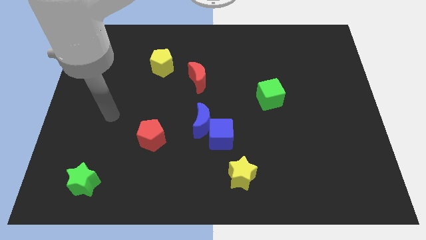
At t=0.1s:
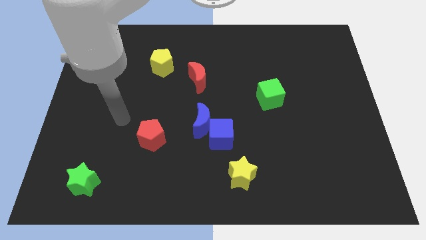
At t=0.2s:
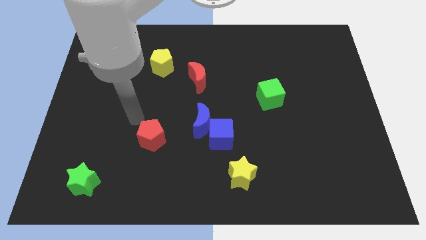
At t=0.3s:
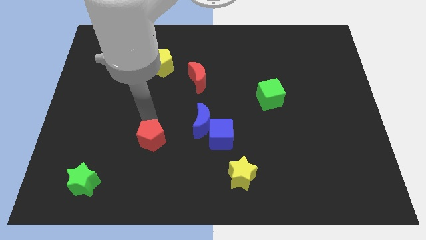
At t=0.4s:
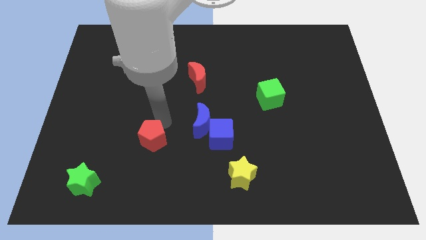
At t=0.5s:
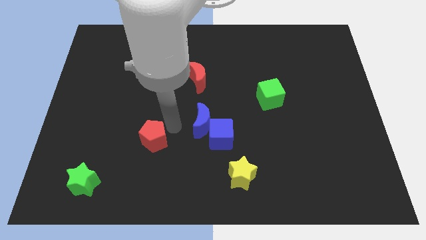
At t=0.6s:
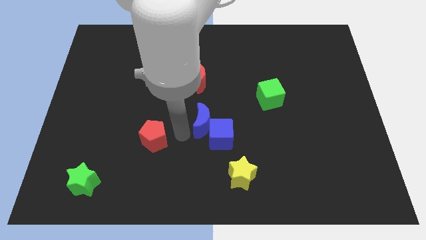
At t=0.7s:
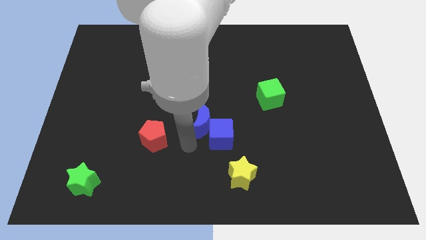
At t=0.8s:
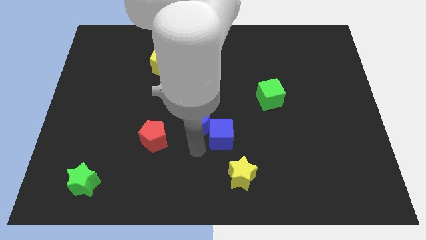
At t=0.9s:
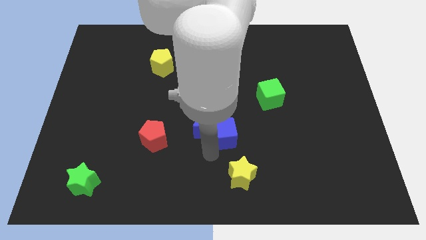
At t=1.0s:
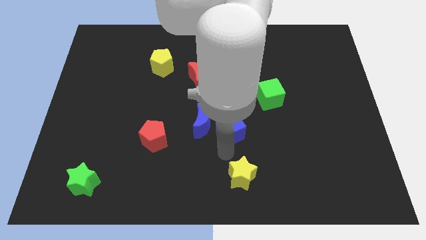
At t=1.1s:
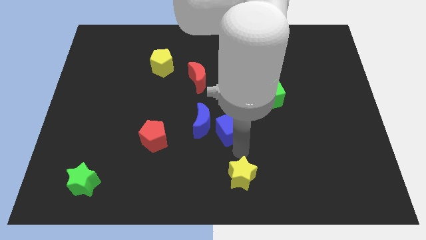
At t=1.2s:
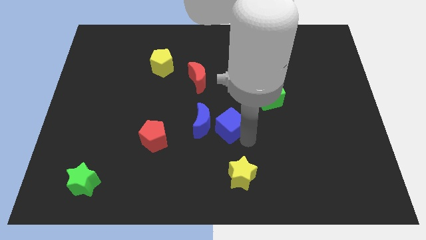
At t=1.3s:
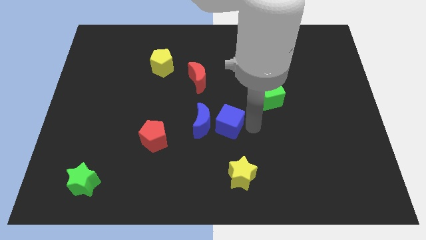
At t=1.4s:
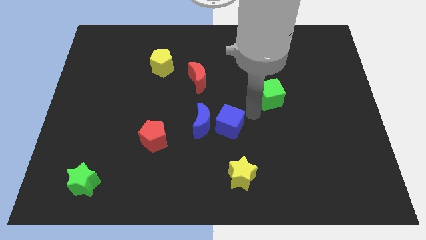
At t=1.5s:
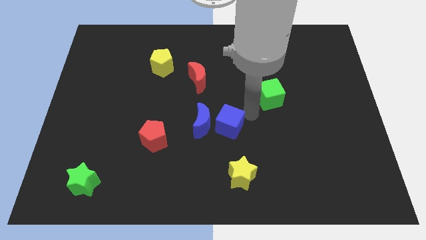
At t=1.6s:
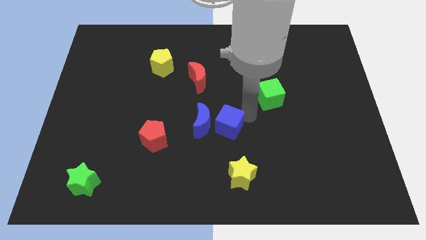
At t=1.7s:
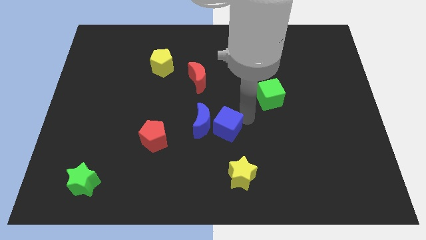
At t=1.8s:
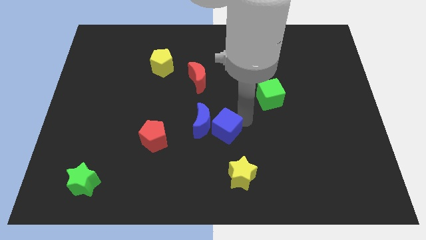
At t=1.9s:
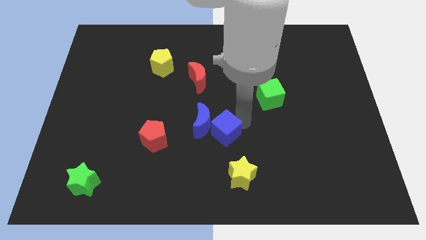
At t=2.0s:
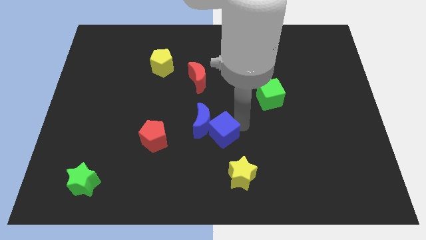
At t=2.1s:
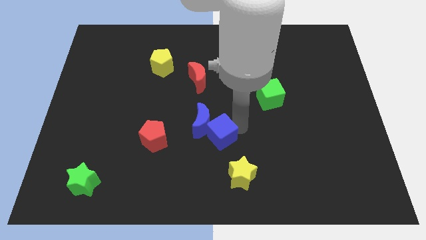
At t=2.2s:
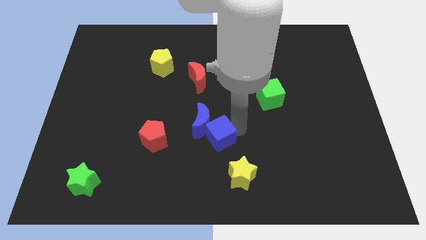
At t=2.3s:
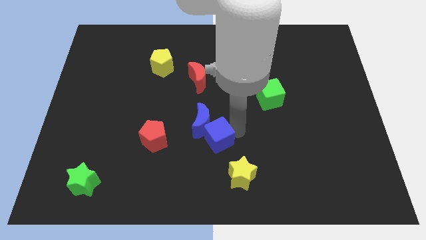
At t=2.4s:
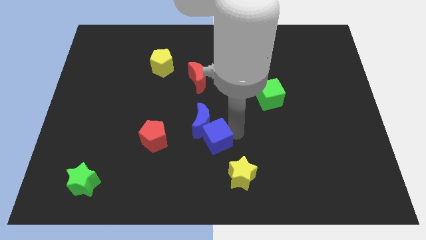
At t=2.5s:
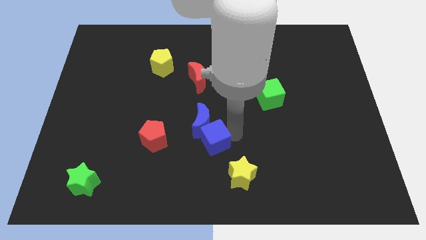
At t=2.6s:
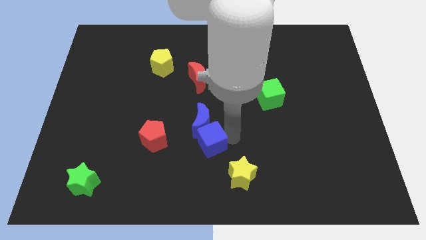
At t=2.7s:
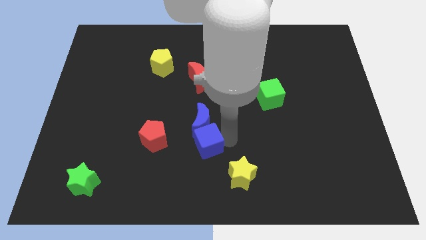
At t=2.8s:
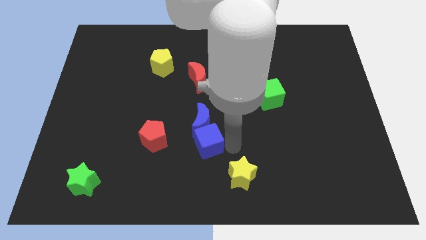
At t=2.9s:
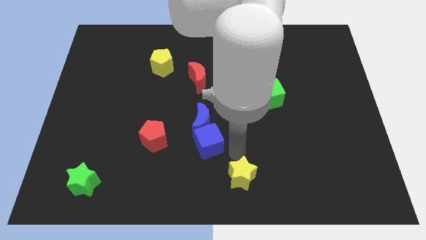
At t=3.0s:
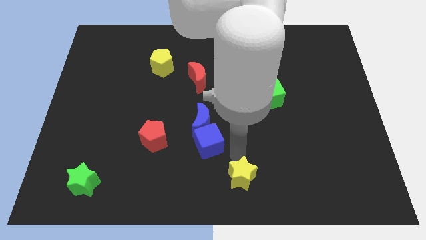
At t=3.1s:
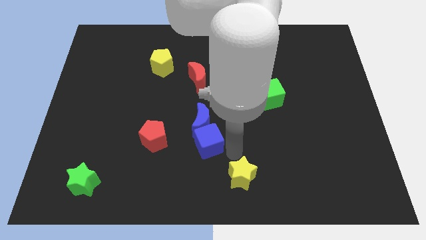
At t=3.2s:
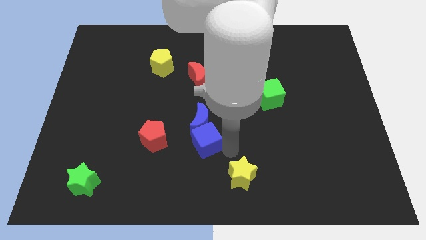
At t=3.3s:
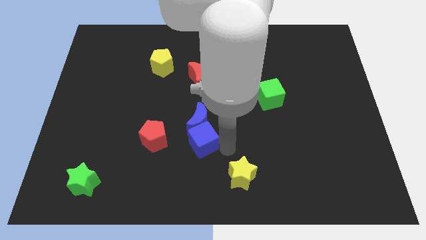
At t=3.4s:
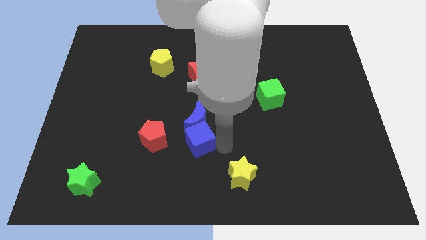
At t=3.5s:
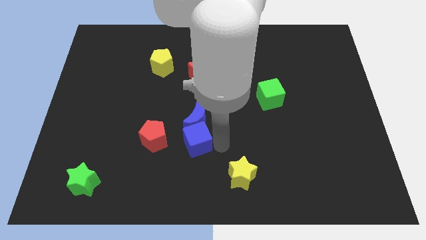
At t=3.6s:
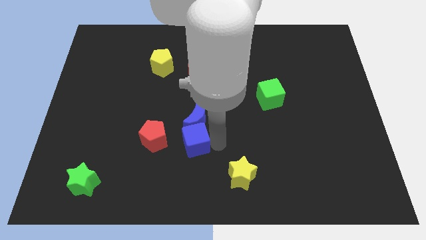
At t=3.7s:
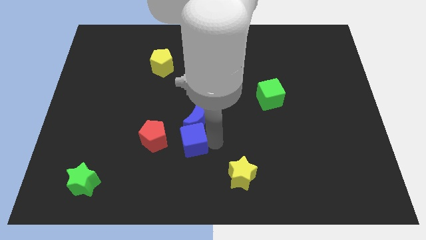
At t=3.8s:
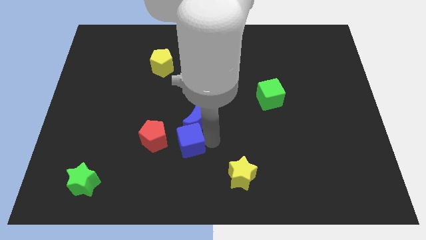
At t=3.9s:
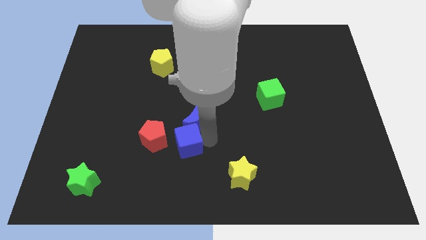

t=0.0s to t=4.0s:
move the blue cube left a little bit

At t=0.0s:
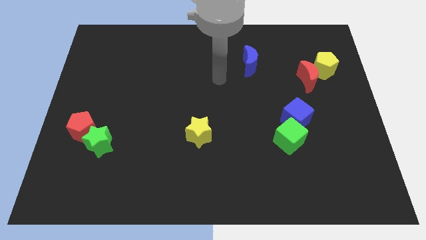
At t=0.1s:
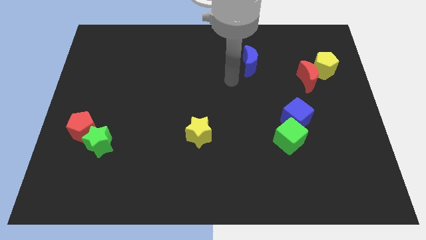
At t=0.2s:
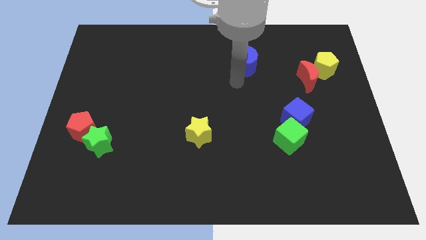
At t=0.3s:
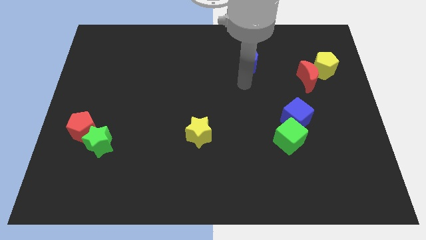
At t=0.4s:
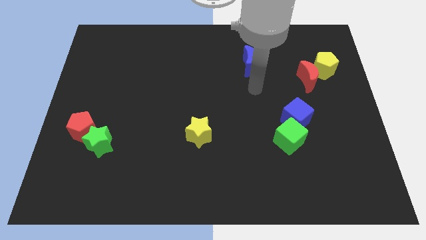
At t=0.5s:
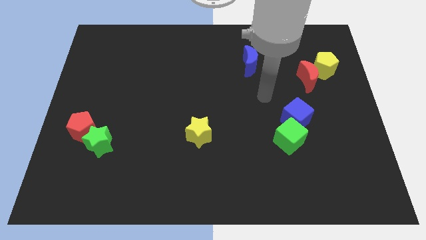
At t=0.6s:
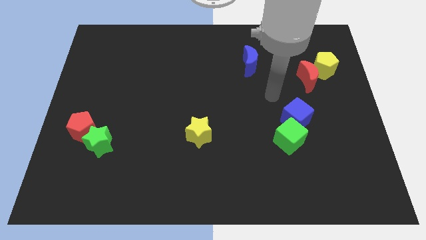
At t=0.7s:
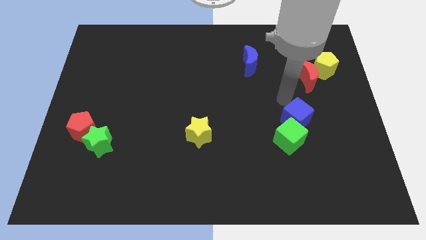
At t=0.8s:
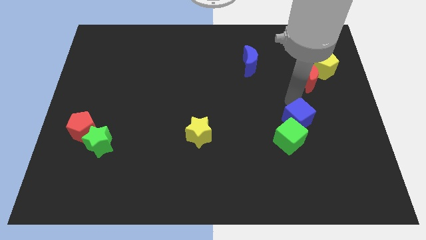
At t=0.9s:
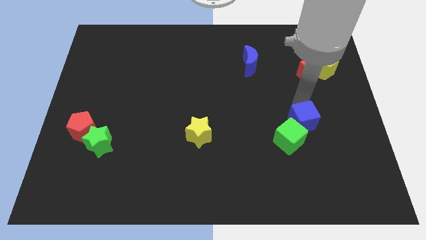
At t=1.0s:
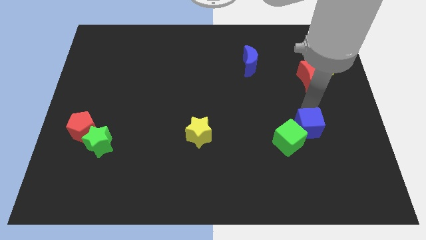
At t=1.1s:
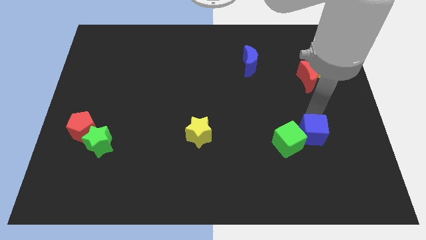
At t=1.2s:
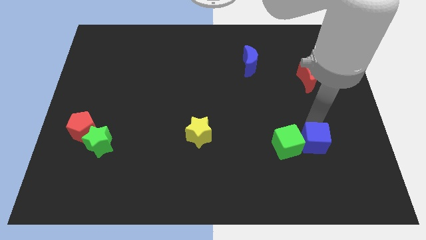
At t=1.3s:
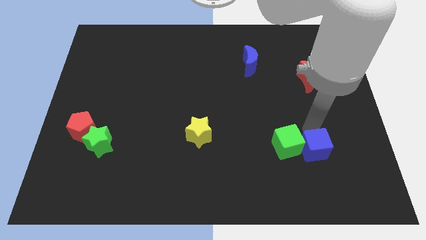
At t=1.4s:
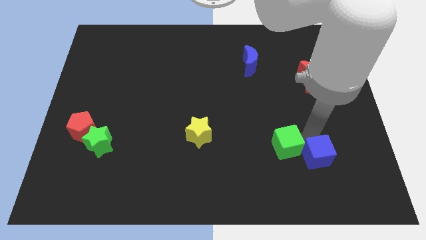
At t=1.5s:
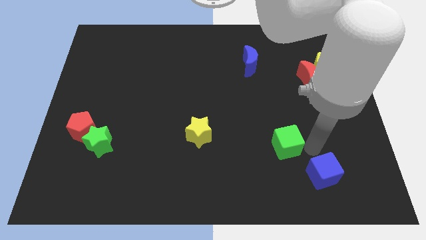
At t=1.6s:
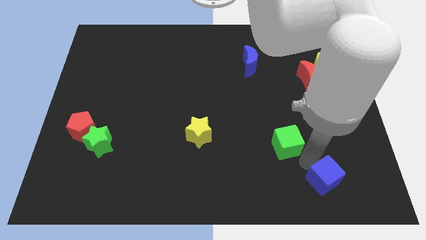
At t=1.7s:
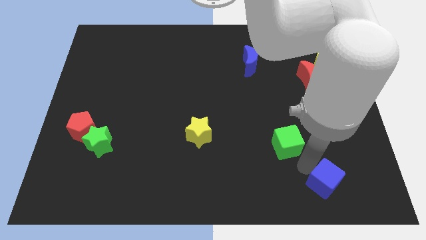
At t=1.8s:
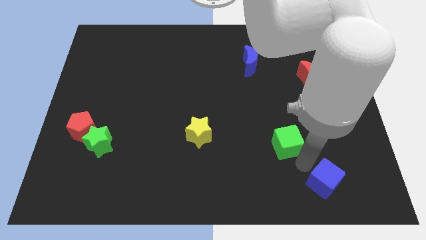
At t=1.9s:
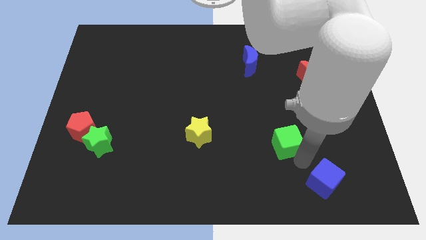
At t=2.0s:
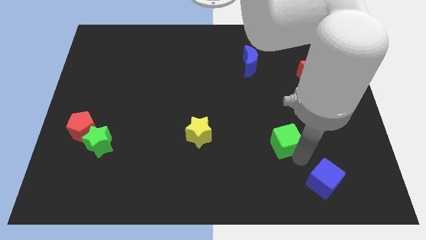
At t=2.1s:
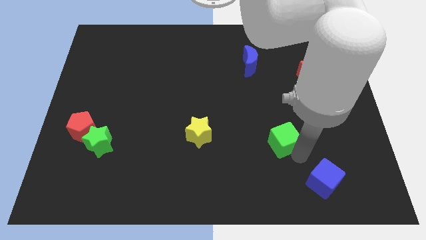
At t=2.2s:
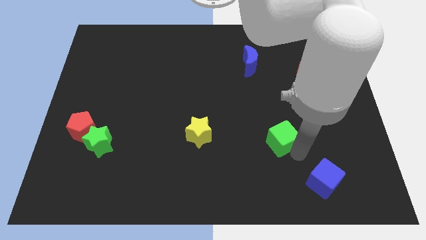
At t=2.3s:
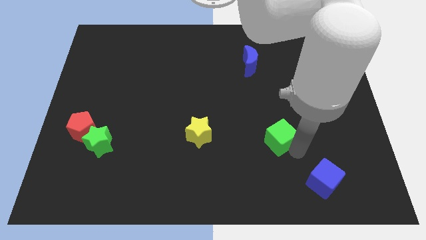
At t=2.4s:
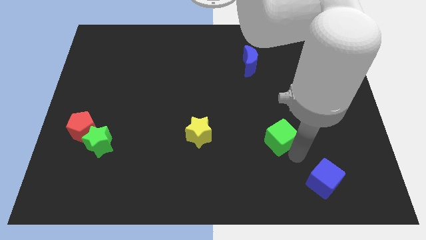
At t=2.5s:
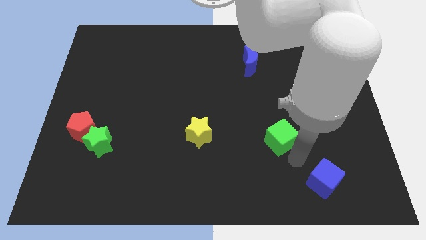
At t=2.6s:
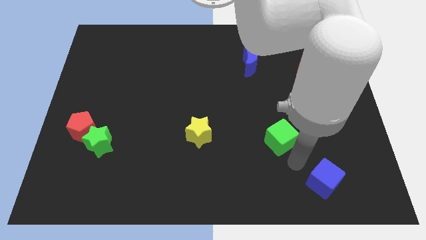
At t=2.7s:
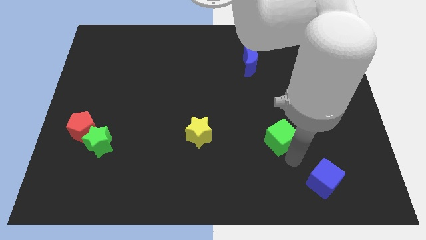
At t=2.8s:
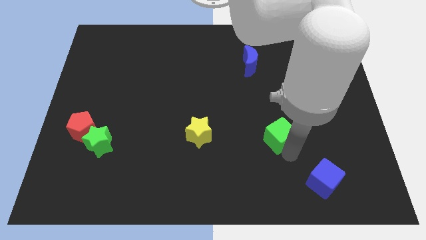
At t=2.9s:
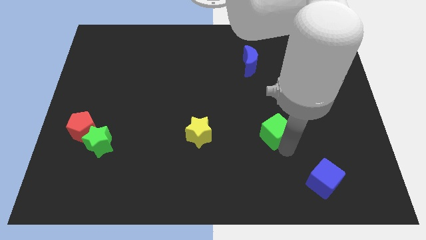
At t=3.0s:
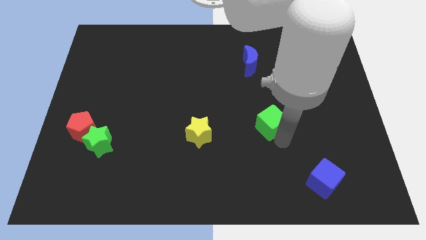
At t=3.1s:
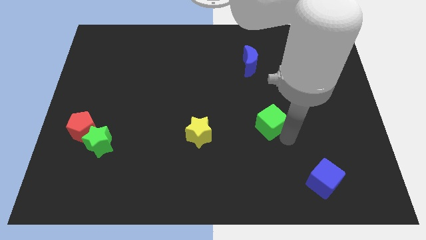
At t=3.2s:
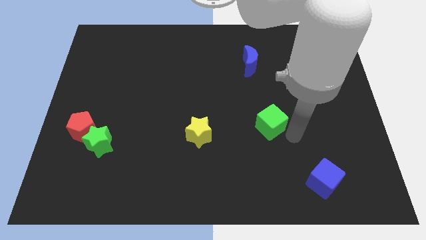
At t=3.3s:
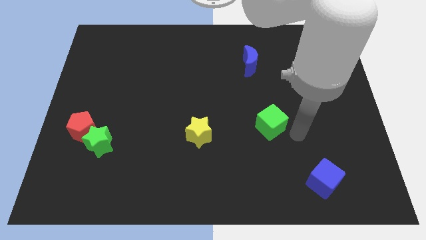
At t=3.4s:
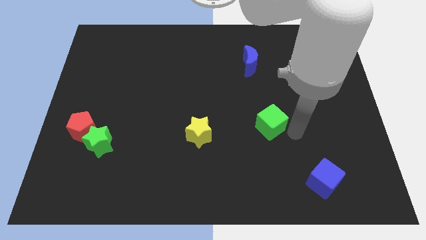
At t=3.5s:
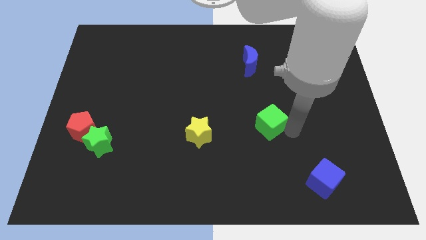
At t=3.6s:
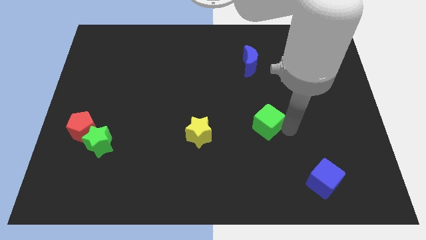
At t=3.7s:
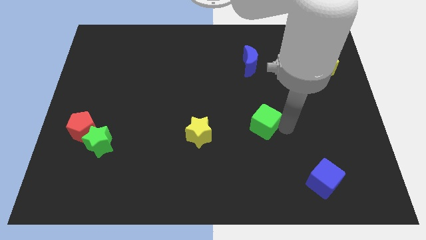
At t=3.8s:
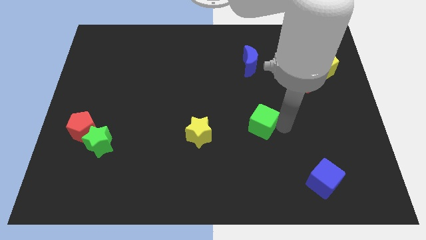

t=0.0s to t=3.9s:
slide the green cube a little up and left

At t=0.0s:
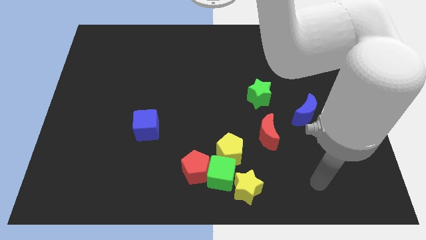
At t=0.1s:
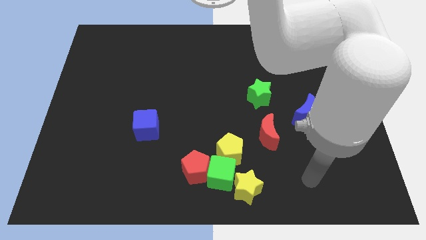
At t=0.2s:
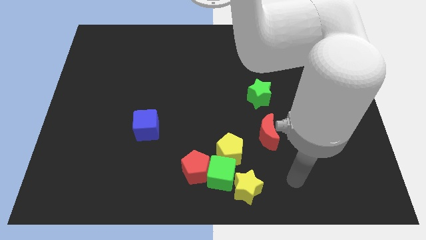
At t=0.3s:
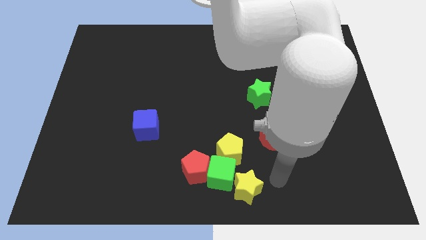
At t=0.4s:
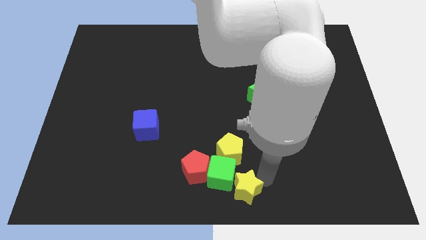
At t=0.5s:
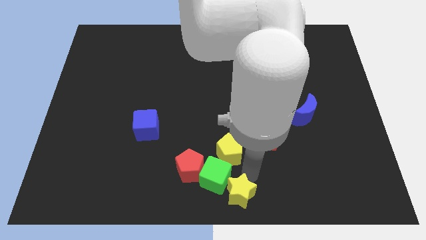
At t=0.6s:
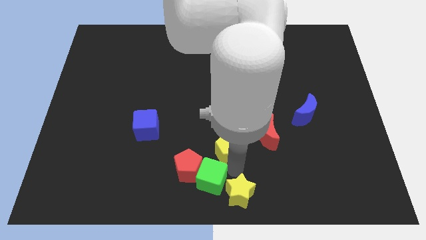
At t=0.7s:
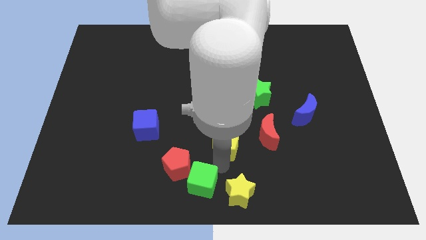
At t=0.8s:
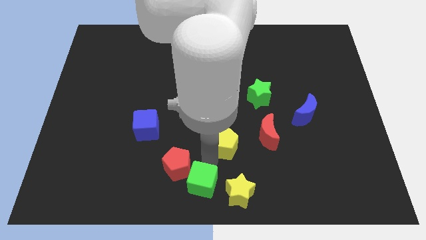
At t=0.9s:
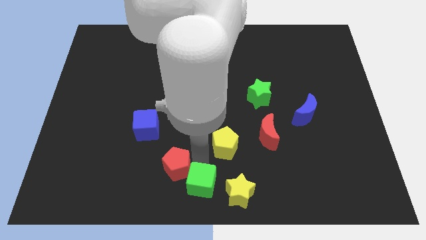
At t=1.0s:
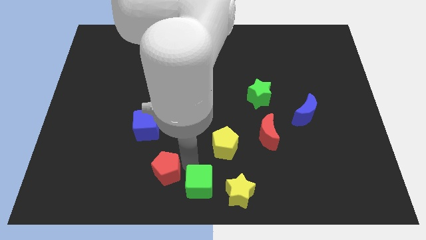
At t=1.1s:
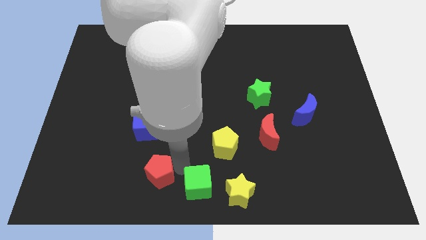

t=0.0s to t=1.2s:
move the red pentagon left slightly
